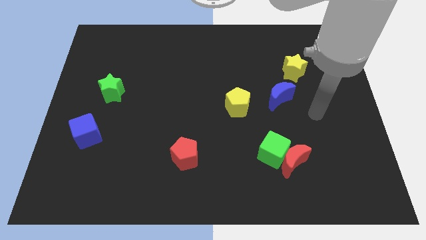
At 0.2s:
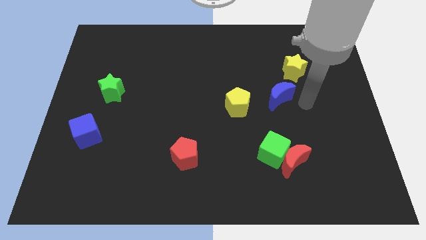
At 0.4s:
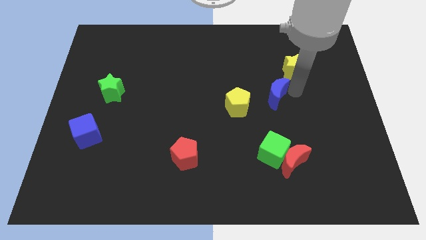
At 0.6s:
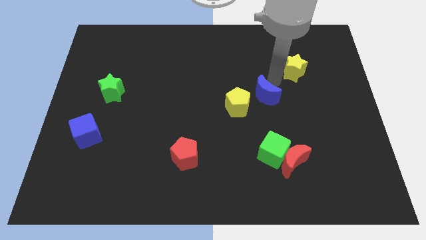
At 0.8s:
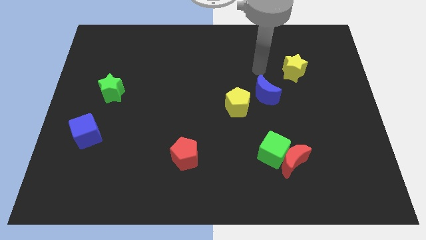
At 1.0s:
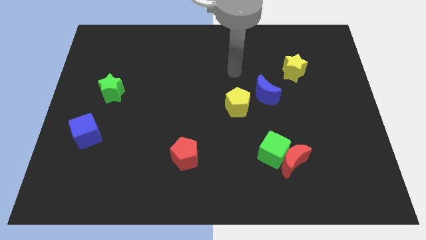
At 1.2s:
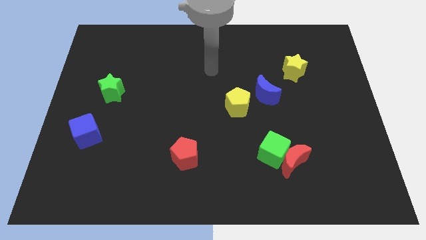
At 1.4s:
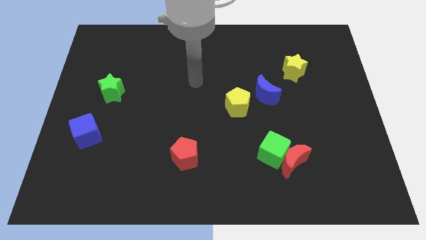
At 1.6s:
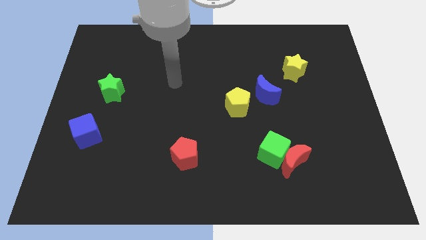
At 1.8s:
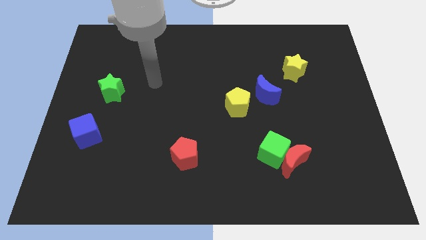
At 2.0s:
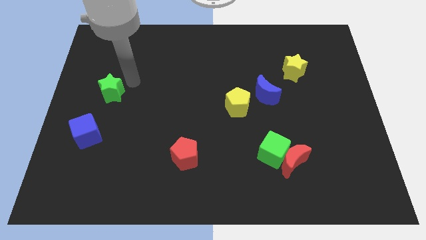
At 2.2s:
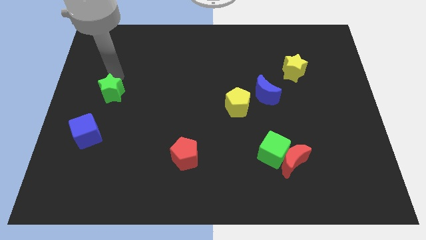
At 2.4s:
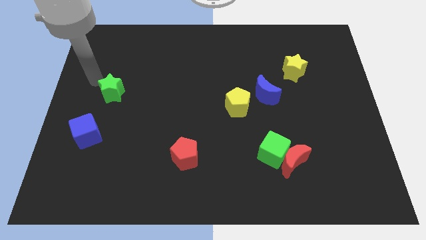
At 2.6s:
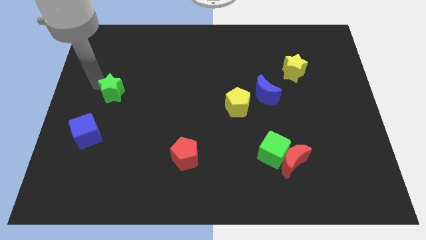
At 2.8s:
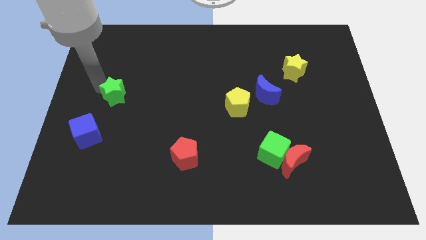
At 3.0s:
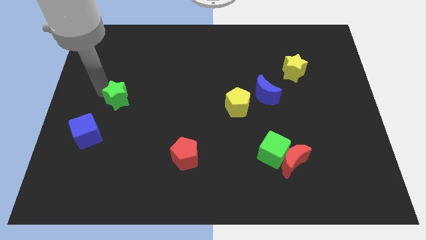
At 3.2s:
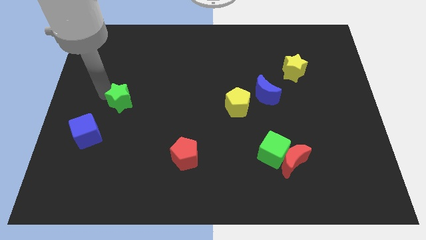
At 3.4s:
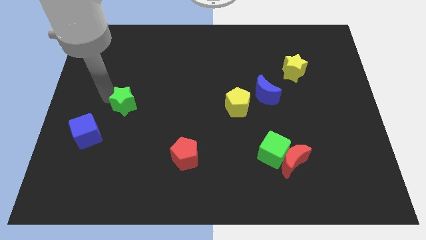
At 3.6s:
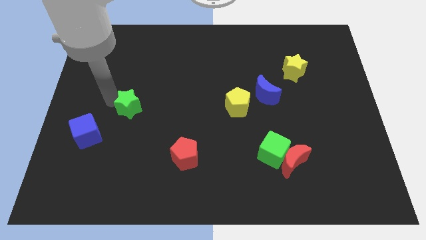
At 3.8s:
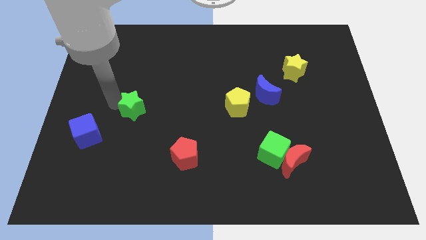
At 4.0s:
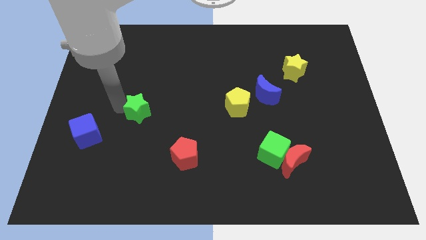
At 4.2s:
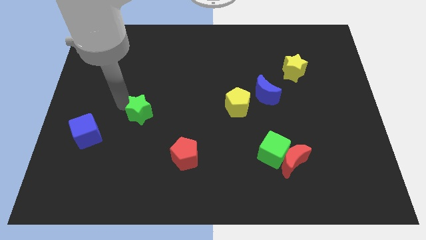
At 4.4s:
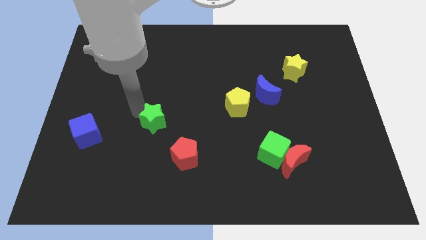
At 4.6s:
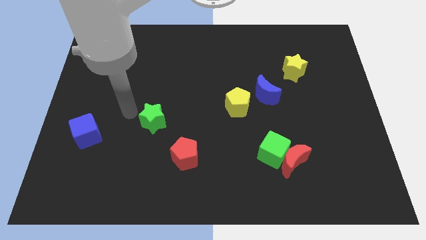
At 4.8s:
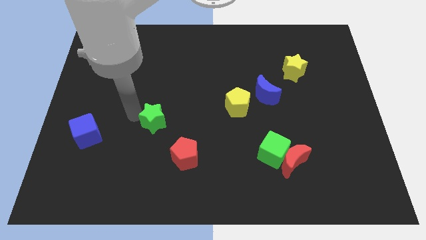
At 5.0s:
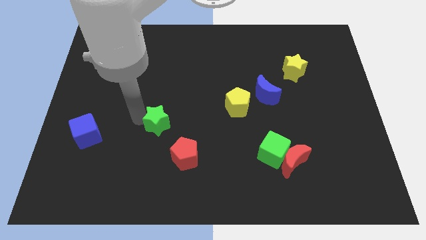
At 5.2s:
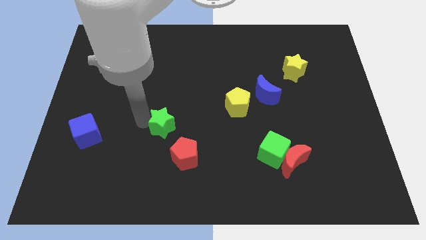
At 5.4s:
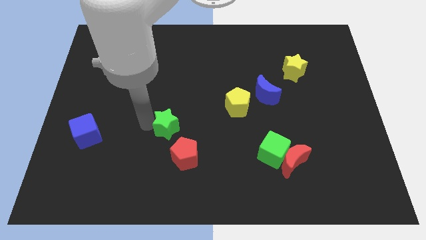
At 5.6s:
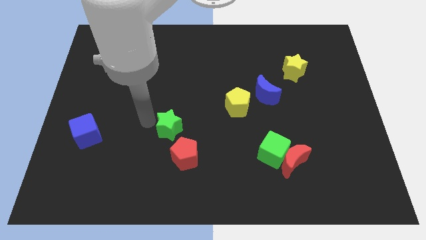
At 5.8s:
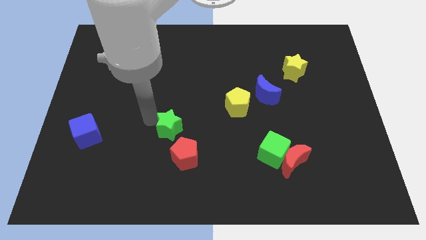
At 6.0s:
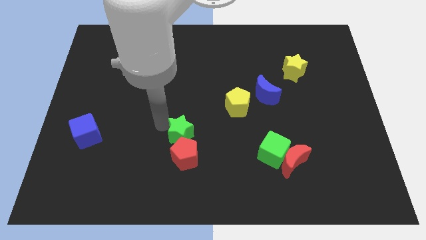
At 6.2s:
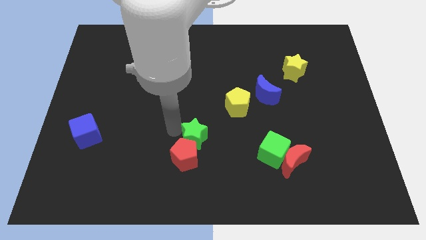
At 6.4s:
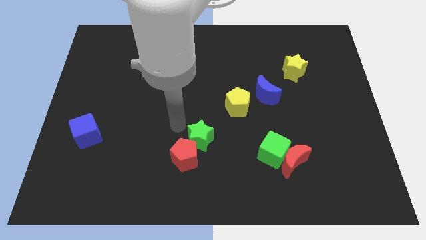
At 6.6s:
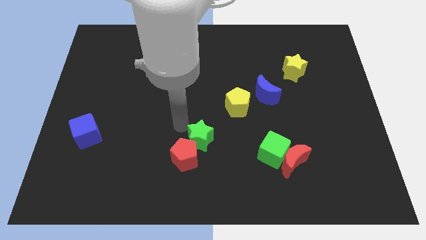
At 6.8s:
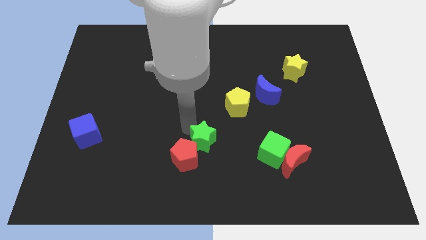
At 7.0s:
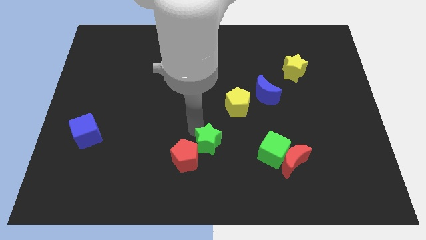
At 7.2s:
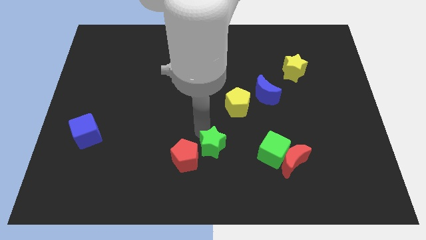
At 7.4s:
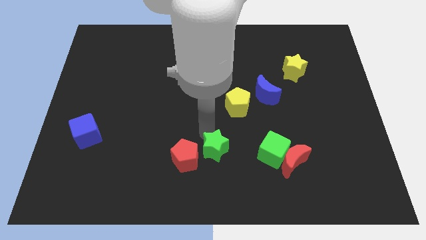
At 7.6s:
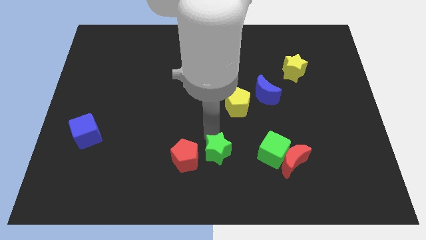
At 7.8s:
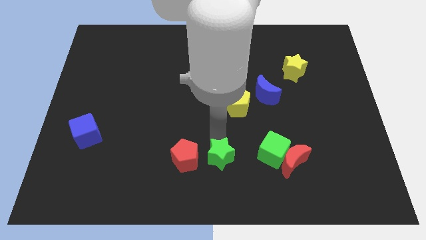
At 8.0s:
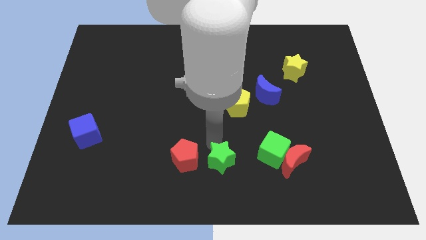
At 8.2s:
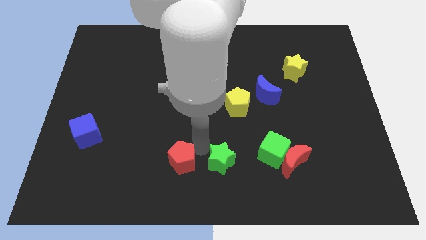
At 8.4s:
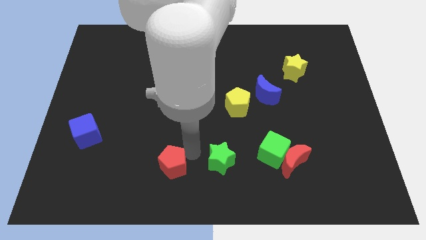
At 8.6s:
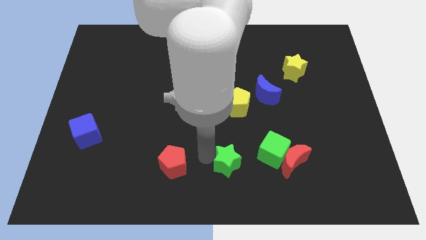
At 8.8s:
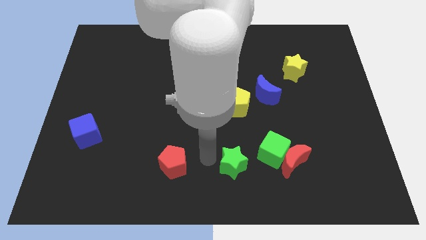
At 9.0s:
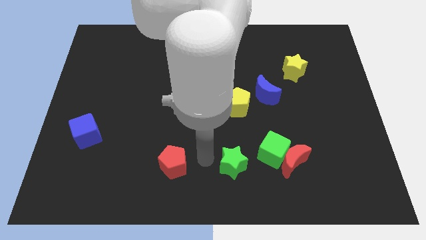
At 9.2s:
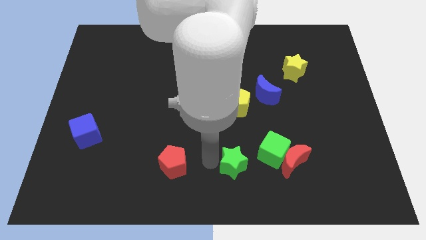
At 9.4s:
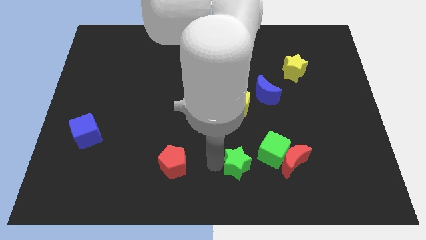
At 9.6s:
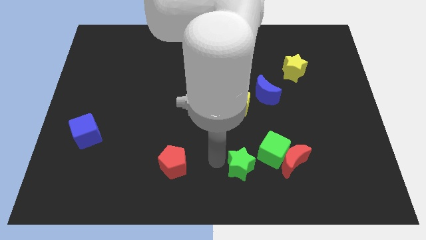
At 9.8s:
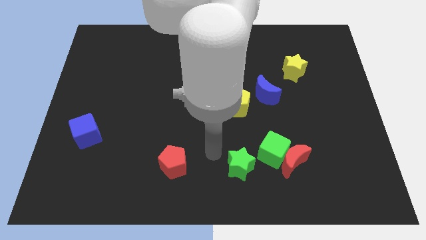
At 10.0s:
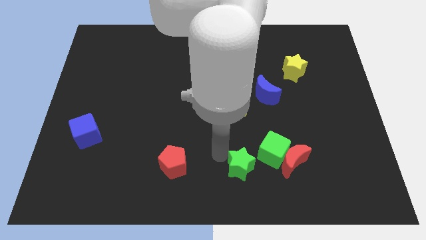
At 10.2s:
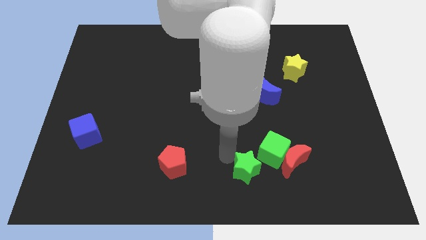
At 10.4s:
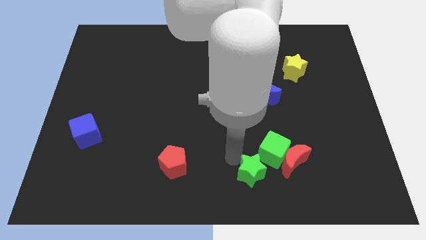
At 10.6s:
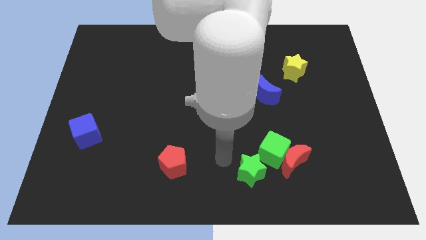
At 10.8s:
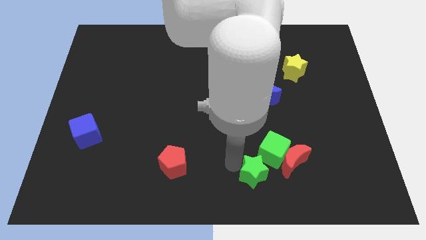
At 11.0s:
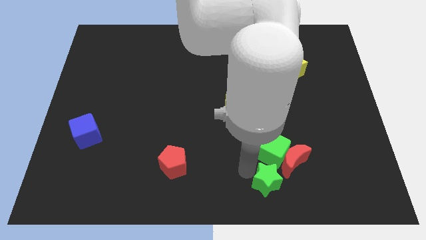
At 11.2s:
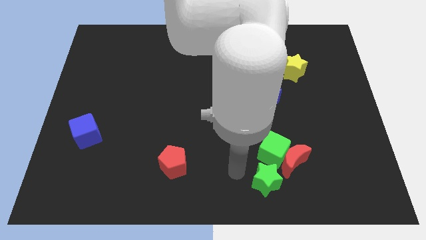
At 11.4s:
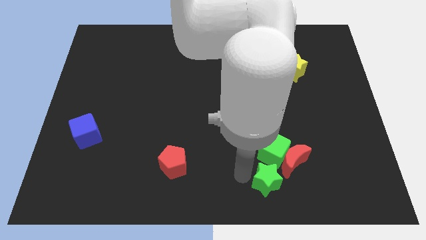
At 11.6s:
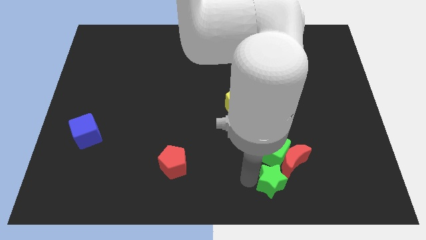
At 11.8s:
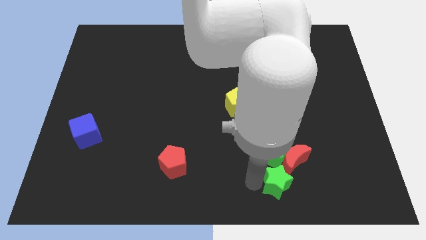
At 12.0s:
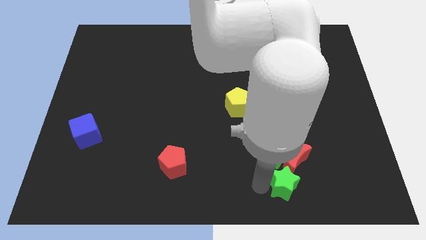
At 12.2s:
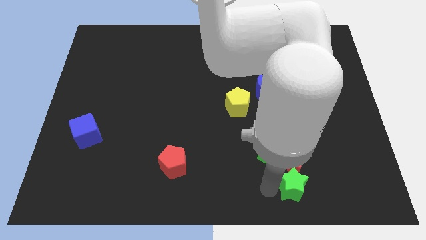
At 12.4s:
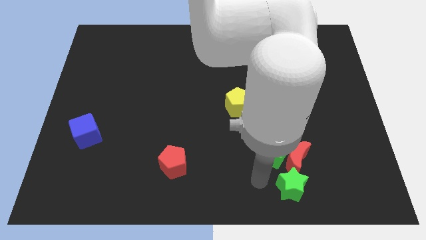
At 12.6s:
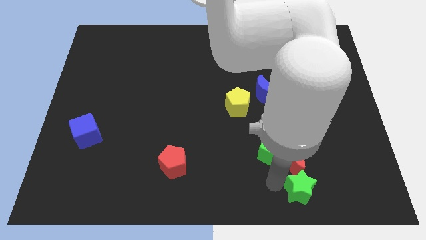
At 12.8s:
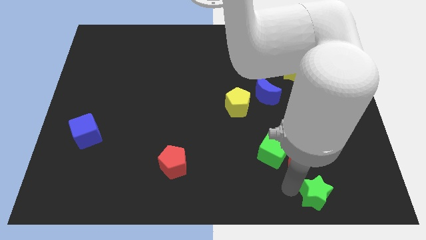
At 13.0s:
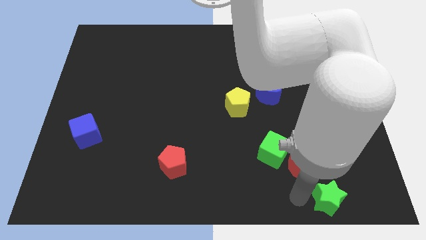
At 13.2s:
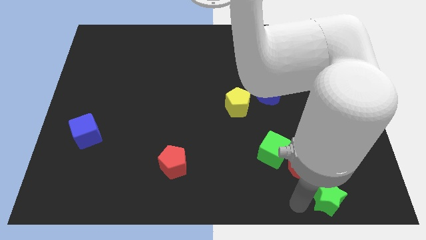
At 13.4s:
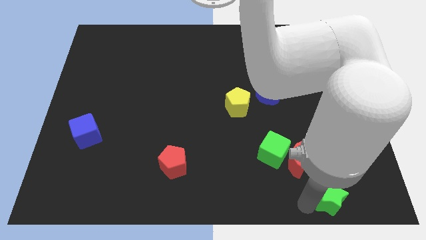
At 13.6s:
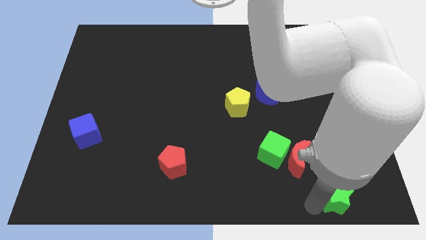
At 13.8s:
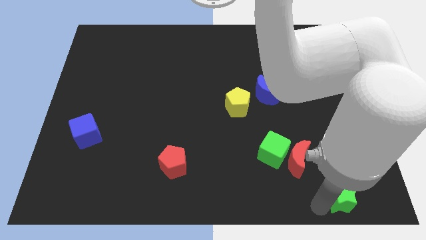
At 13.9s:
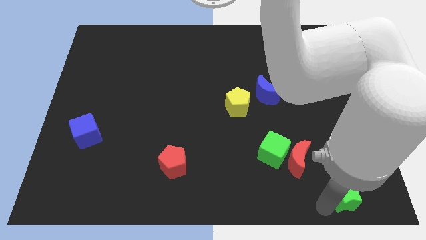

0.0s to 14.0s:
put the green star to the bottom right corner
